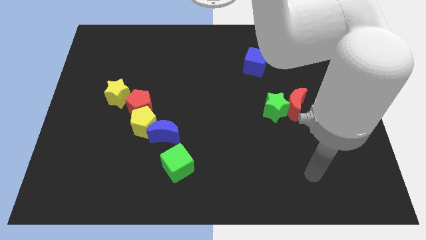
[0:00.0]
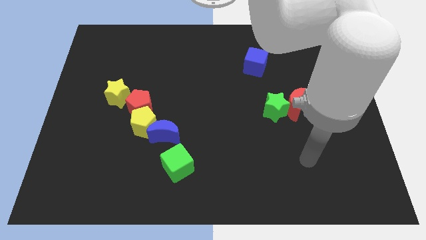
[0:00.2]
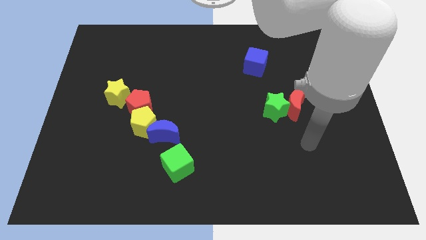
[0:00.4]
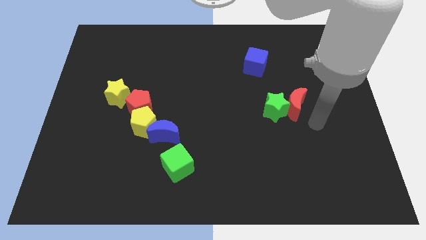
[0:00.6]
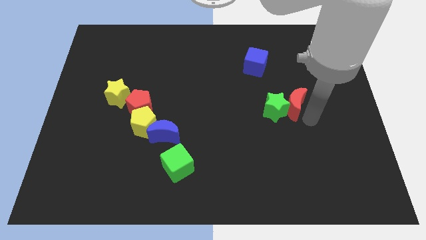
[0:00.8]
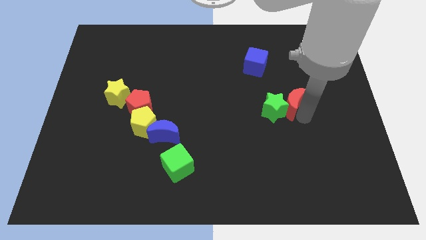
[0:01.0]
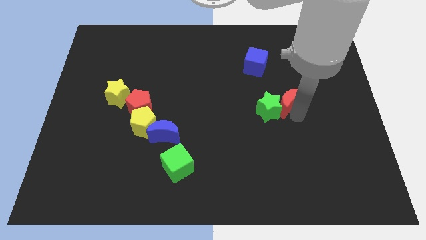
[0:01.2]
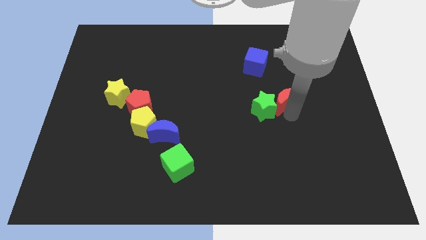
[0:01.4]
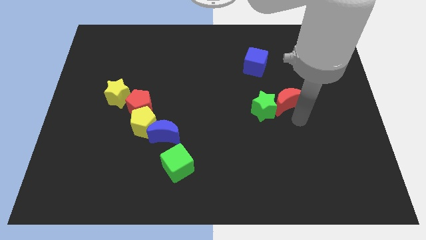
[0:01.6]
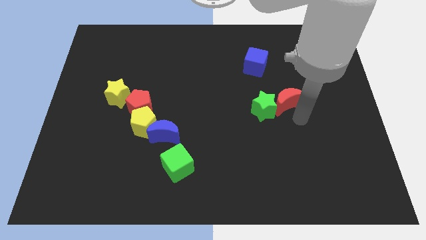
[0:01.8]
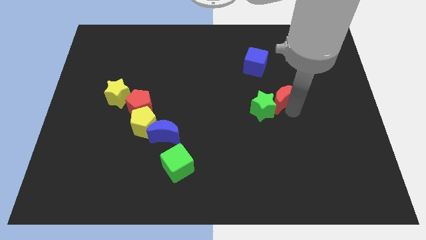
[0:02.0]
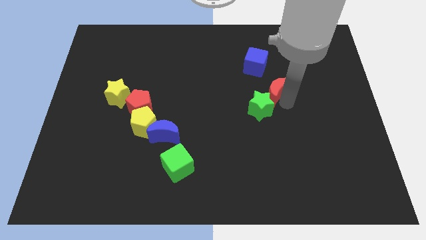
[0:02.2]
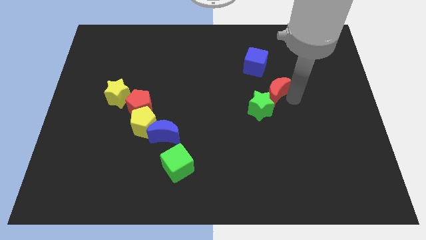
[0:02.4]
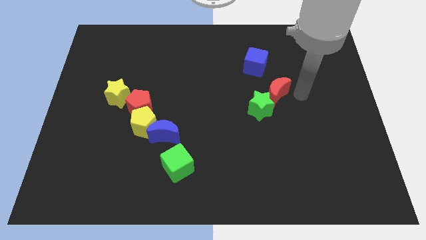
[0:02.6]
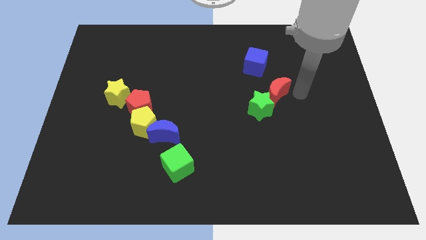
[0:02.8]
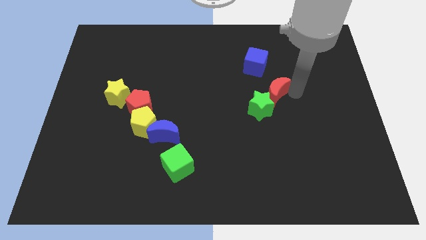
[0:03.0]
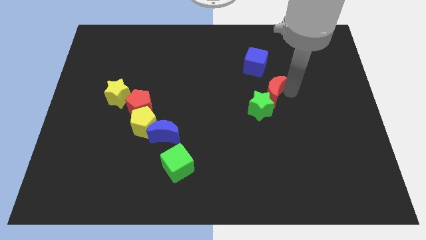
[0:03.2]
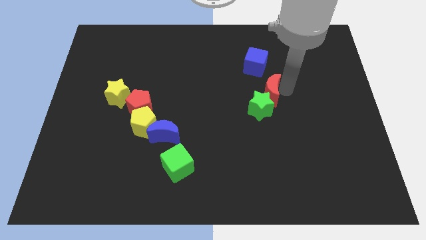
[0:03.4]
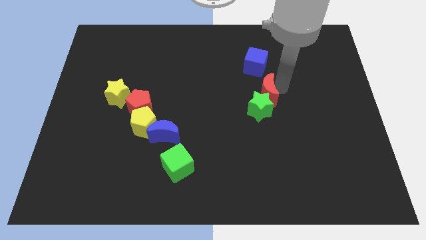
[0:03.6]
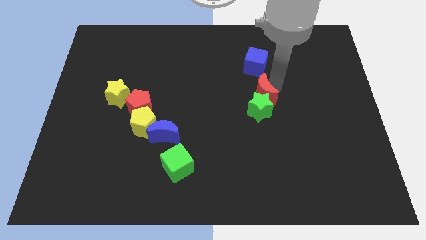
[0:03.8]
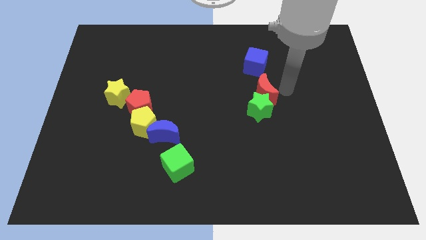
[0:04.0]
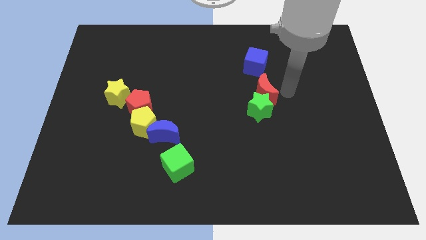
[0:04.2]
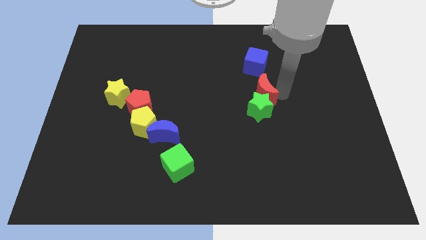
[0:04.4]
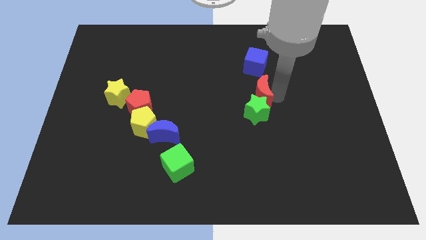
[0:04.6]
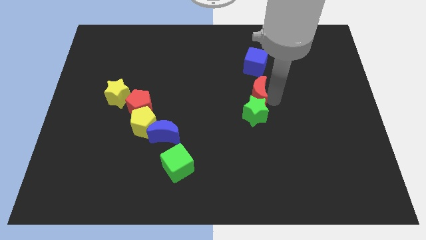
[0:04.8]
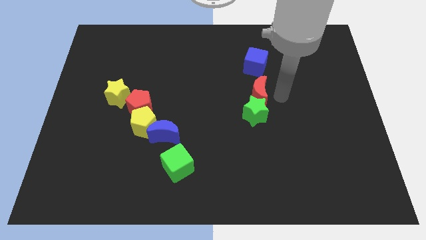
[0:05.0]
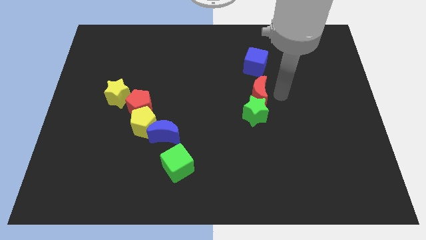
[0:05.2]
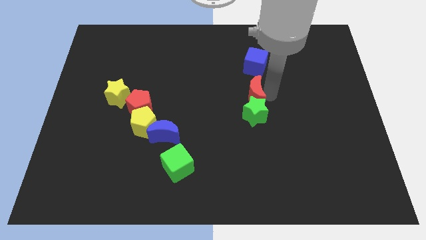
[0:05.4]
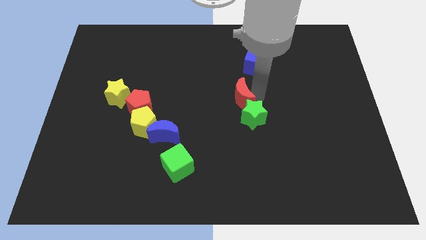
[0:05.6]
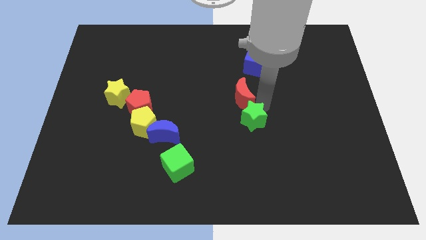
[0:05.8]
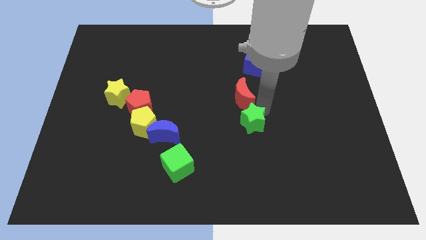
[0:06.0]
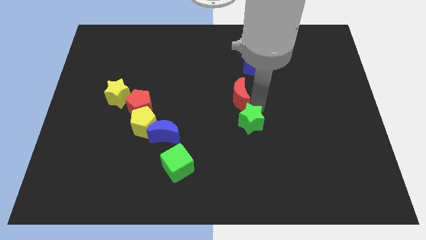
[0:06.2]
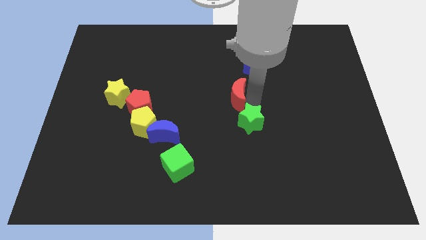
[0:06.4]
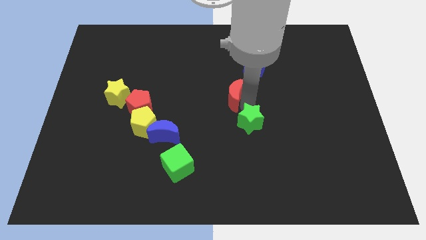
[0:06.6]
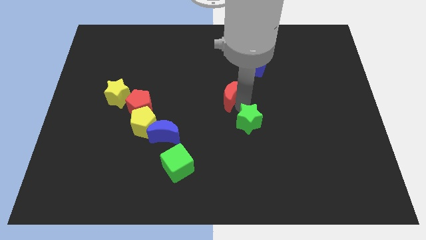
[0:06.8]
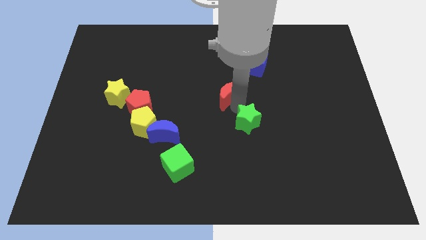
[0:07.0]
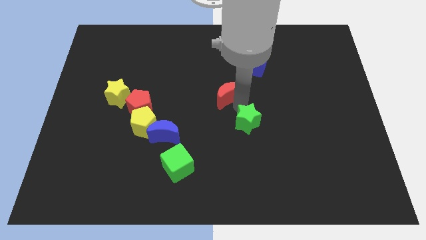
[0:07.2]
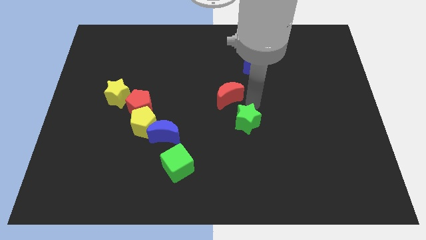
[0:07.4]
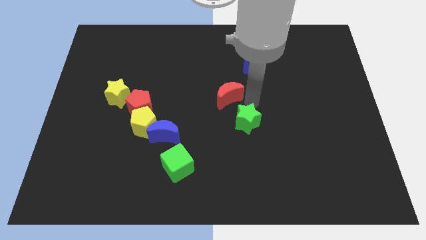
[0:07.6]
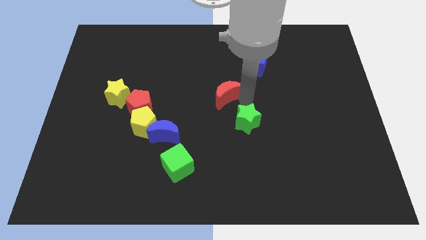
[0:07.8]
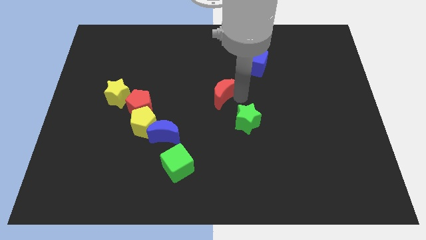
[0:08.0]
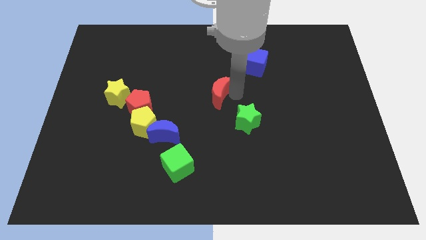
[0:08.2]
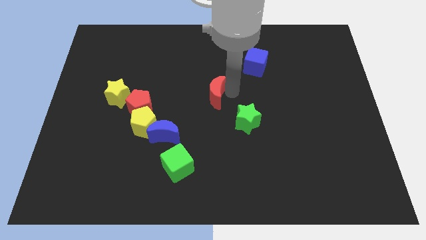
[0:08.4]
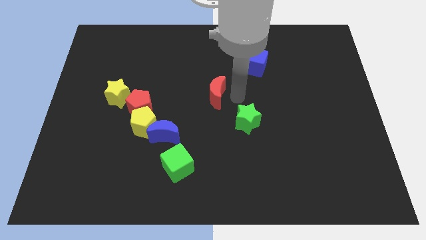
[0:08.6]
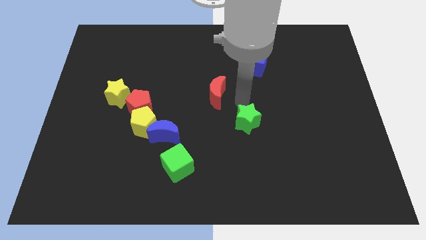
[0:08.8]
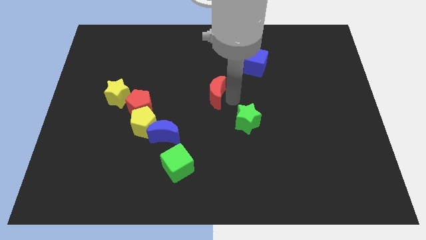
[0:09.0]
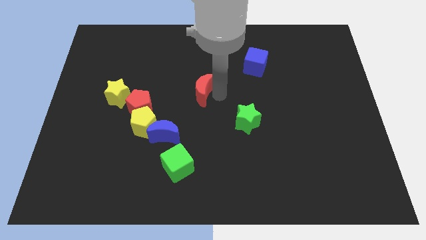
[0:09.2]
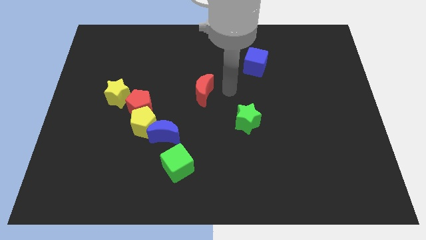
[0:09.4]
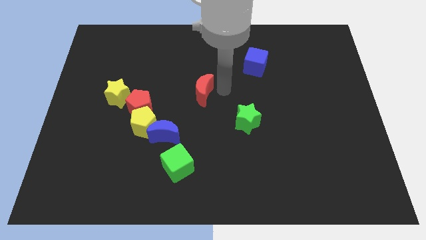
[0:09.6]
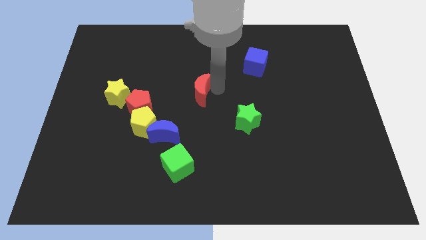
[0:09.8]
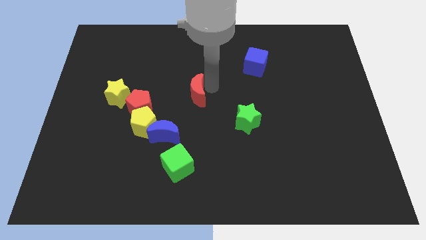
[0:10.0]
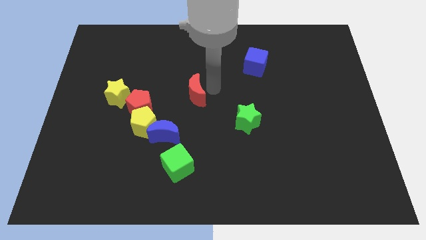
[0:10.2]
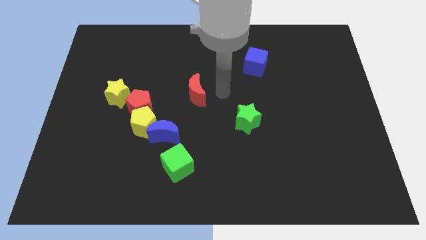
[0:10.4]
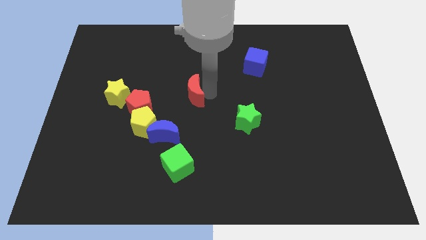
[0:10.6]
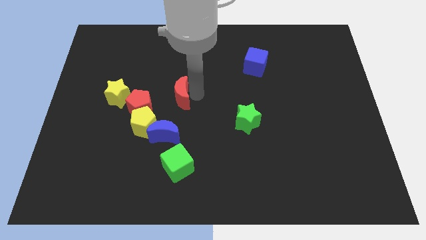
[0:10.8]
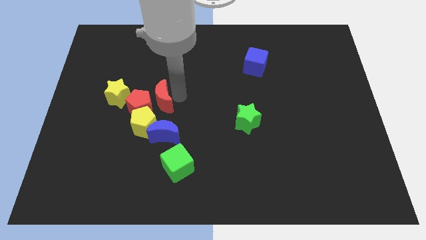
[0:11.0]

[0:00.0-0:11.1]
slide the red moon to the red pentagon
